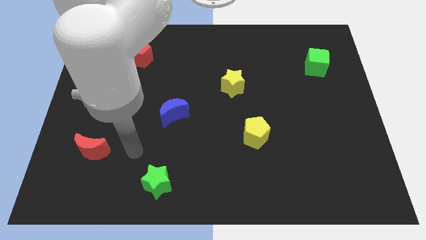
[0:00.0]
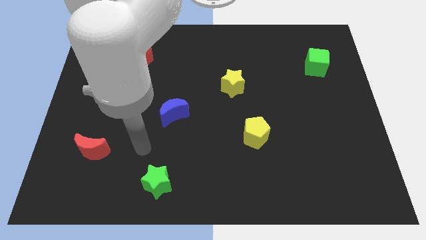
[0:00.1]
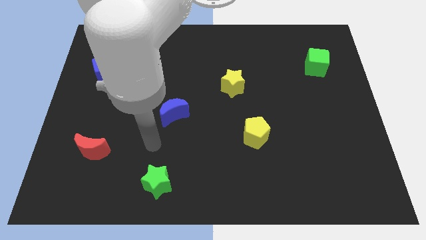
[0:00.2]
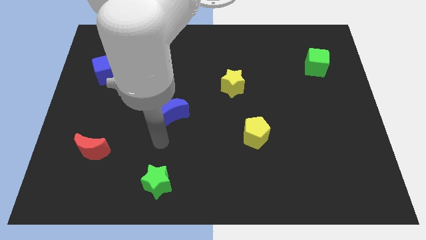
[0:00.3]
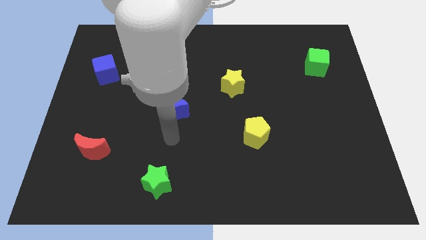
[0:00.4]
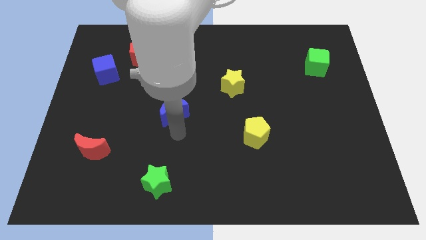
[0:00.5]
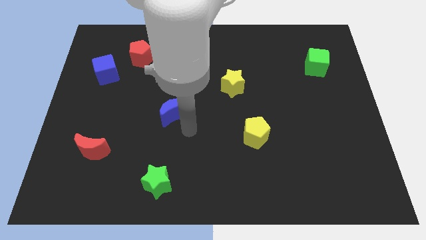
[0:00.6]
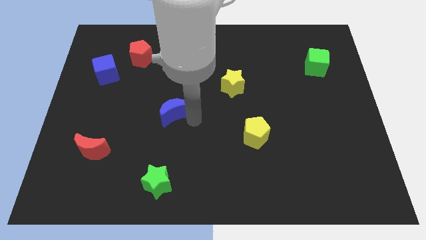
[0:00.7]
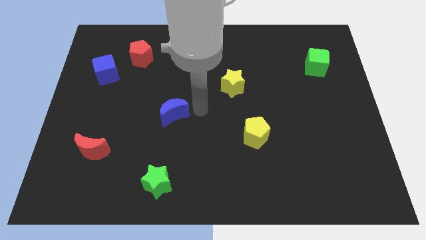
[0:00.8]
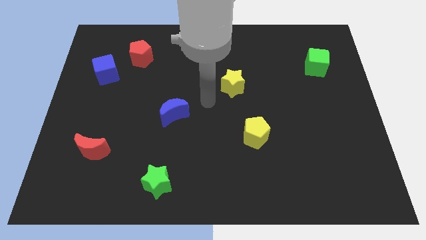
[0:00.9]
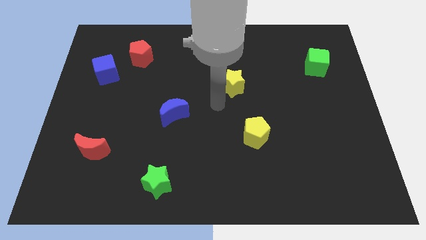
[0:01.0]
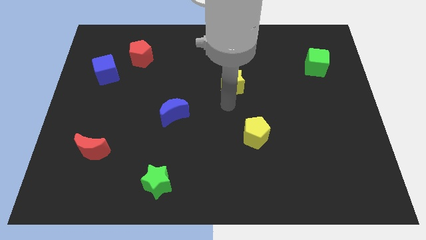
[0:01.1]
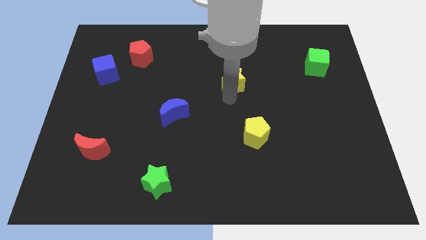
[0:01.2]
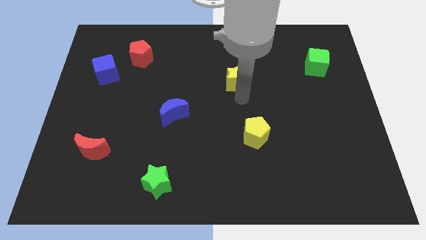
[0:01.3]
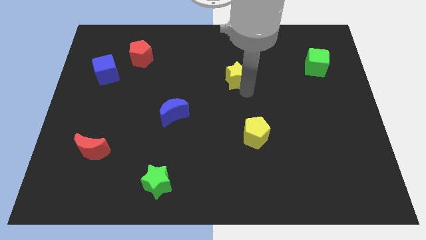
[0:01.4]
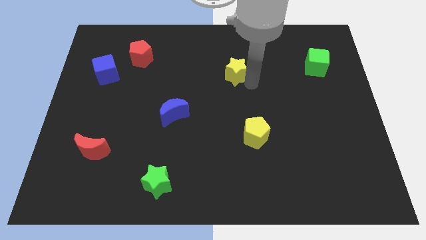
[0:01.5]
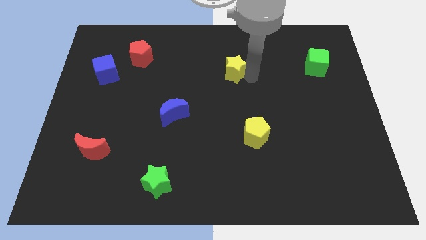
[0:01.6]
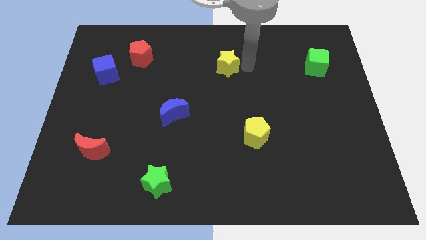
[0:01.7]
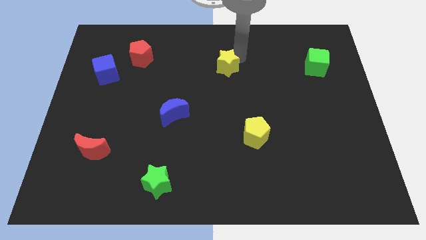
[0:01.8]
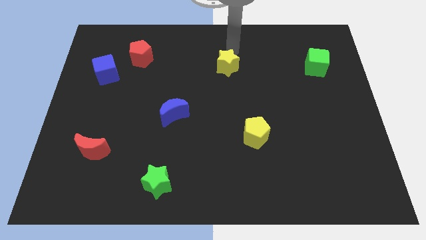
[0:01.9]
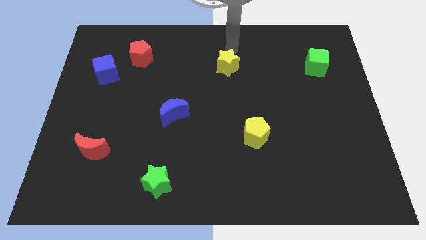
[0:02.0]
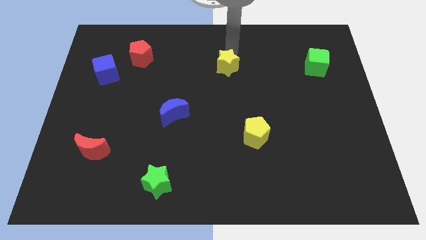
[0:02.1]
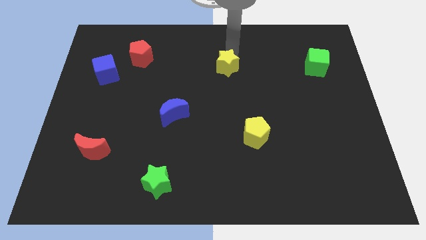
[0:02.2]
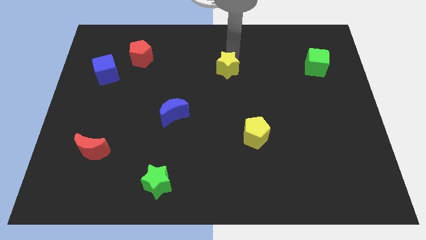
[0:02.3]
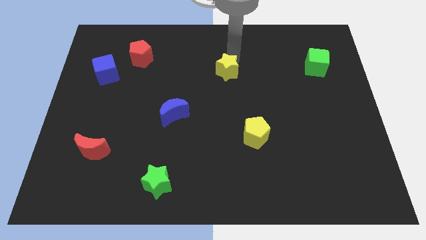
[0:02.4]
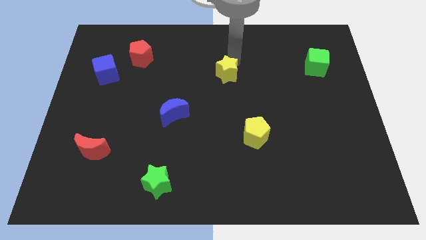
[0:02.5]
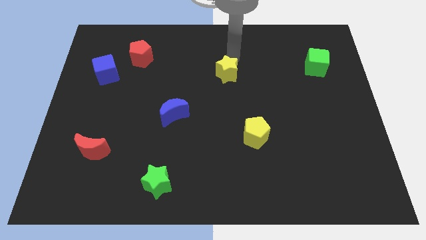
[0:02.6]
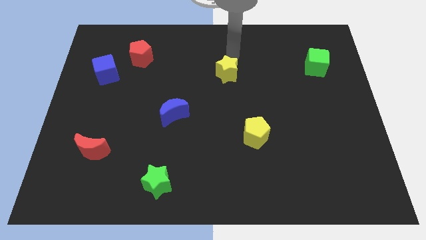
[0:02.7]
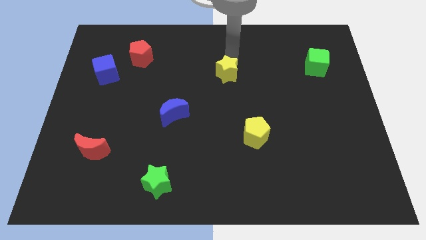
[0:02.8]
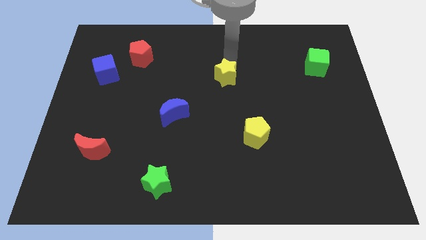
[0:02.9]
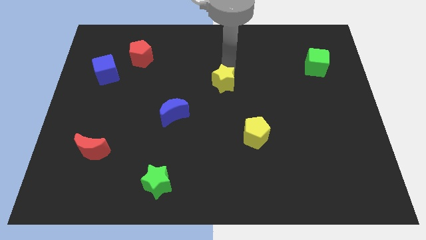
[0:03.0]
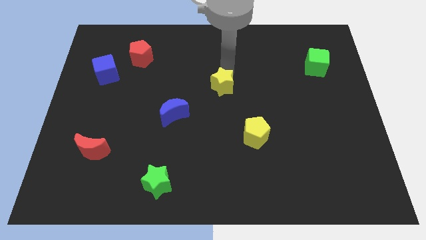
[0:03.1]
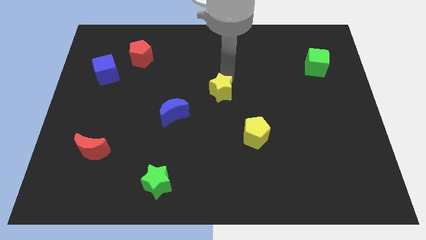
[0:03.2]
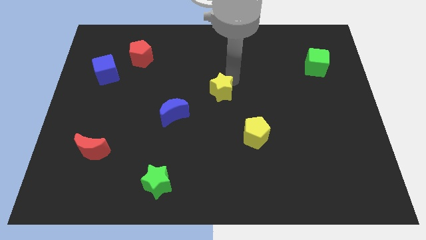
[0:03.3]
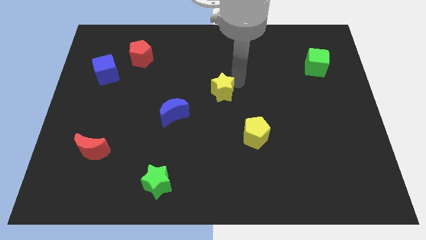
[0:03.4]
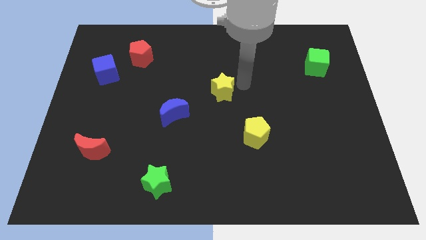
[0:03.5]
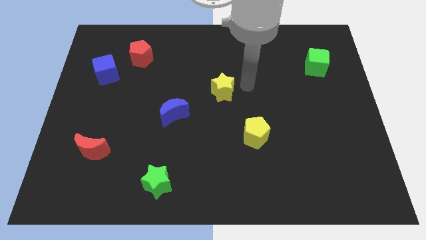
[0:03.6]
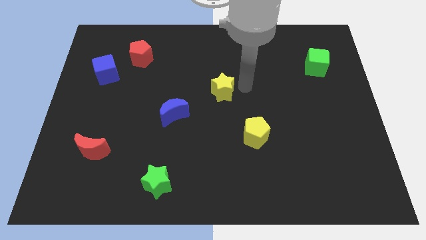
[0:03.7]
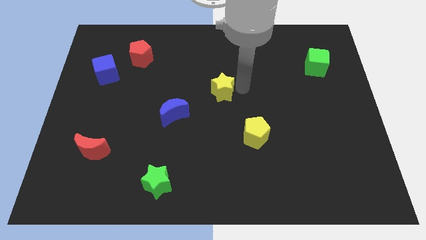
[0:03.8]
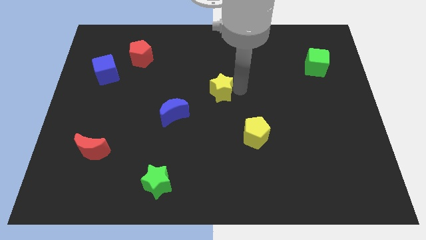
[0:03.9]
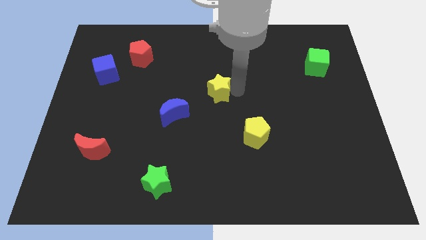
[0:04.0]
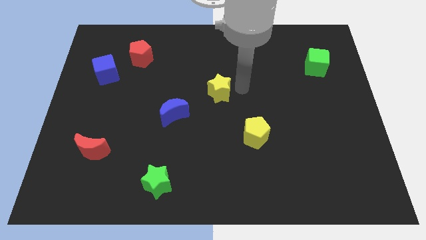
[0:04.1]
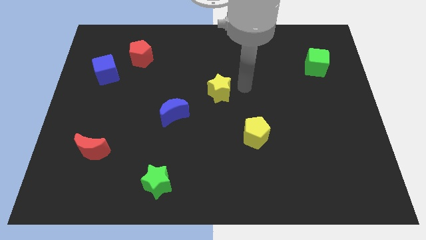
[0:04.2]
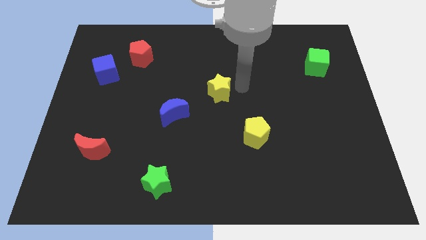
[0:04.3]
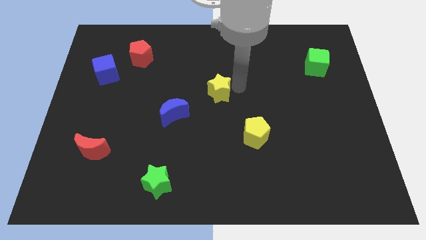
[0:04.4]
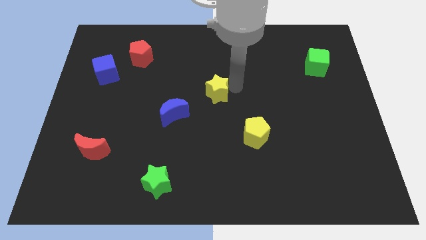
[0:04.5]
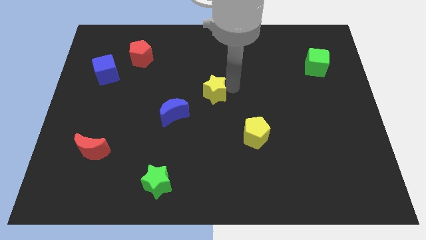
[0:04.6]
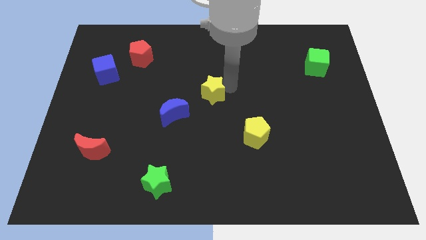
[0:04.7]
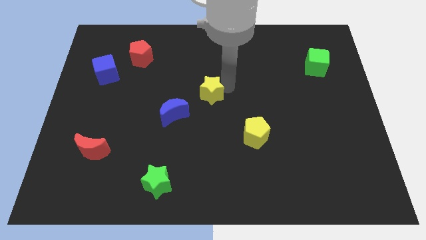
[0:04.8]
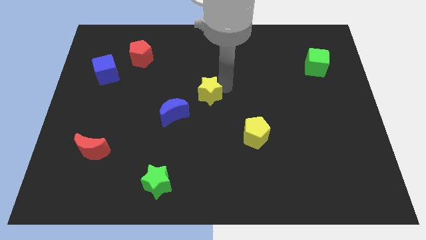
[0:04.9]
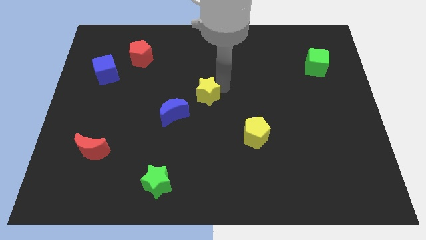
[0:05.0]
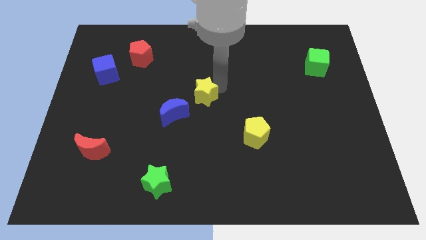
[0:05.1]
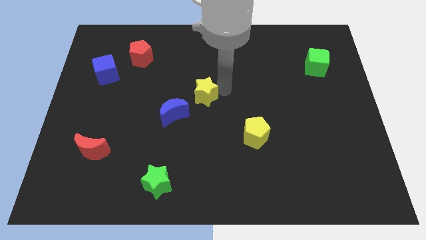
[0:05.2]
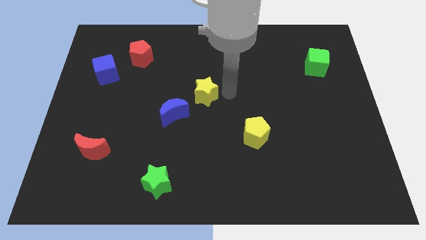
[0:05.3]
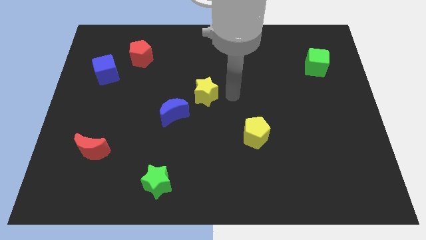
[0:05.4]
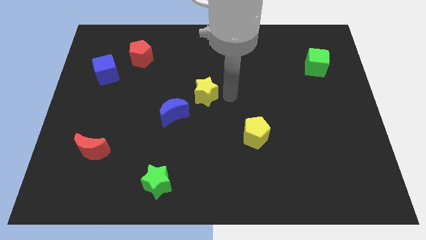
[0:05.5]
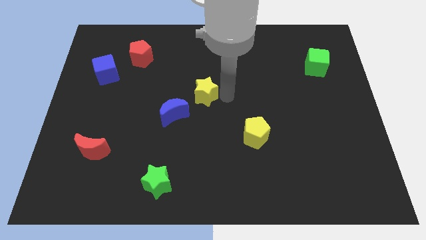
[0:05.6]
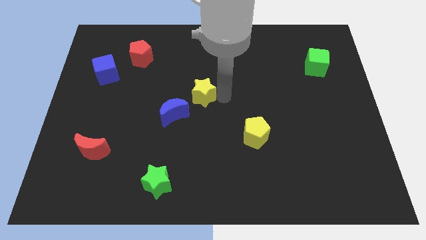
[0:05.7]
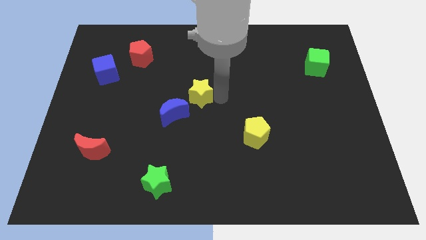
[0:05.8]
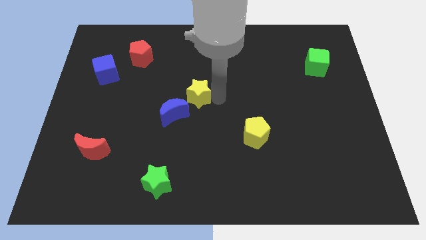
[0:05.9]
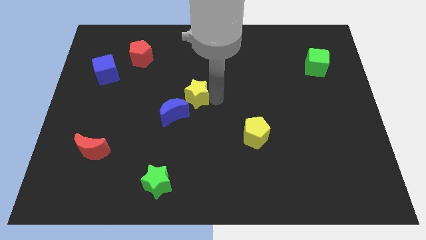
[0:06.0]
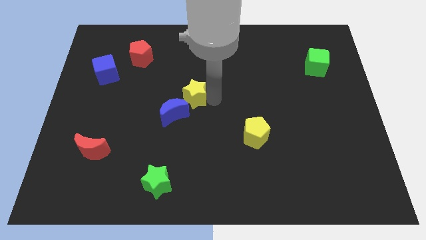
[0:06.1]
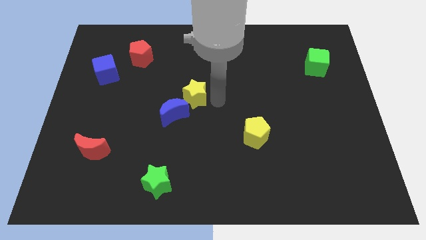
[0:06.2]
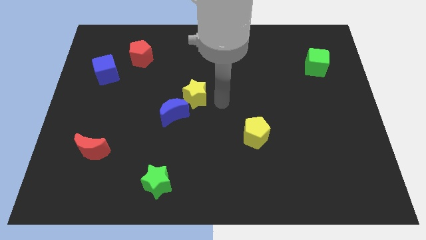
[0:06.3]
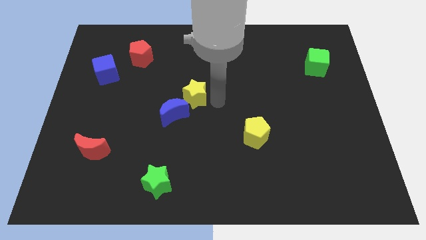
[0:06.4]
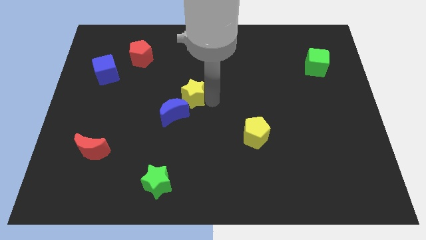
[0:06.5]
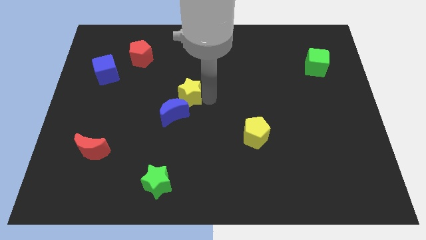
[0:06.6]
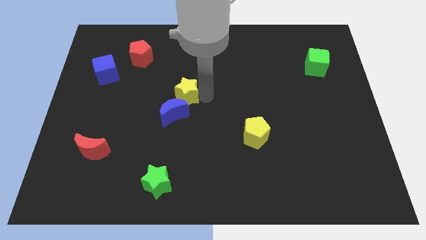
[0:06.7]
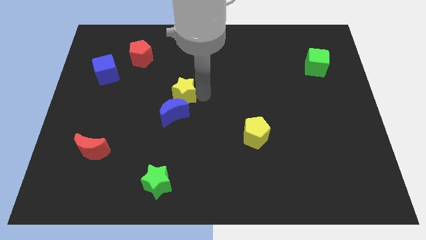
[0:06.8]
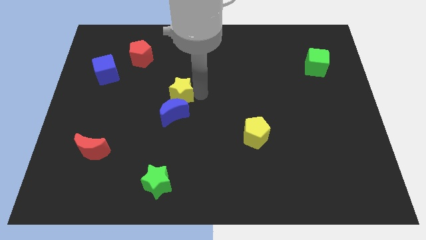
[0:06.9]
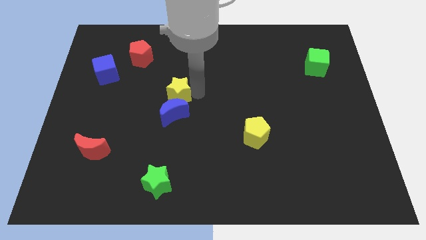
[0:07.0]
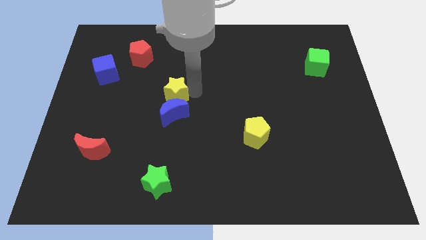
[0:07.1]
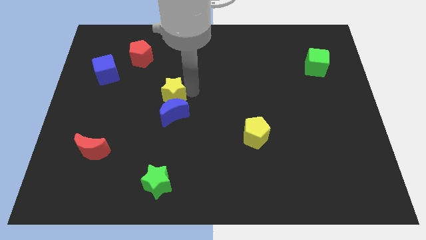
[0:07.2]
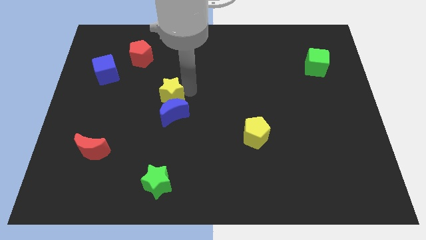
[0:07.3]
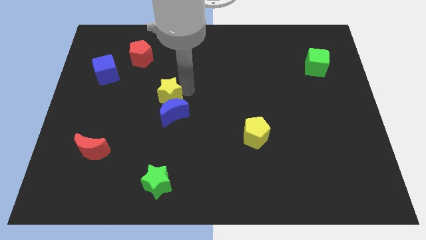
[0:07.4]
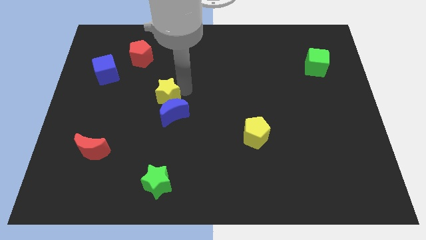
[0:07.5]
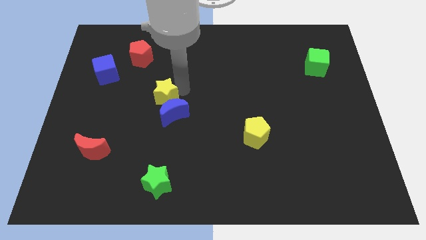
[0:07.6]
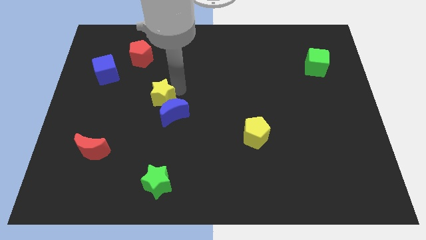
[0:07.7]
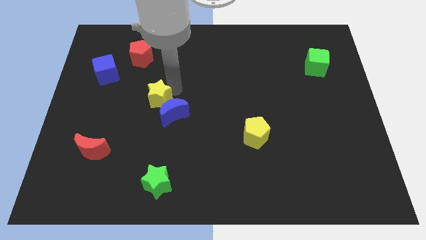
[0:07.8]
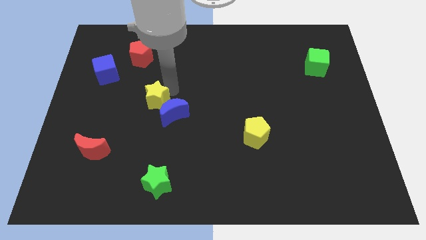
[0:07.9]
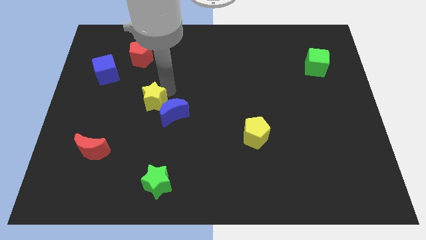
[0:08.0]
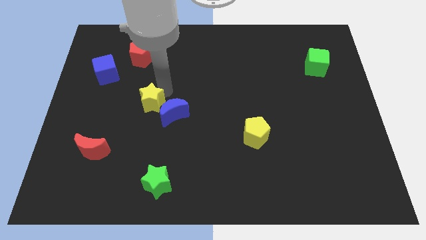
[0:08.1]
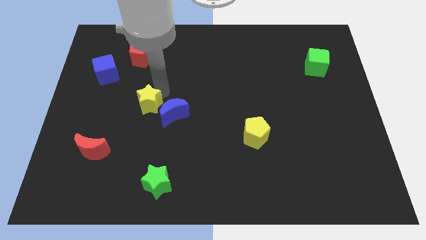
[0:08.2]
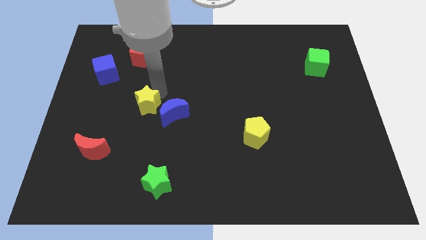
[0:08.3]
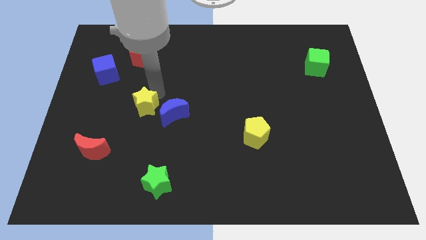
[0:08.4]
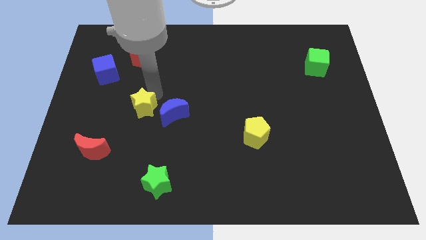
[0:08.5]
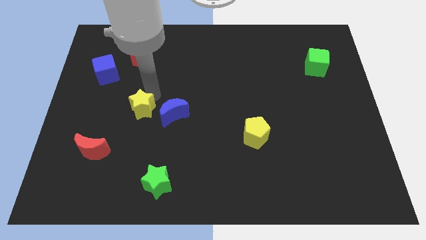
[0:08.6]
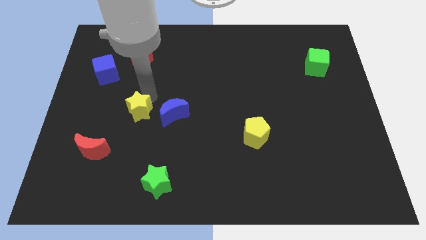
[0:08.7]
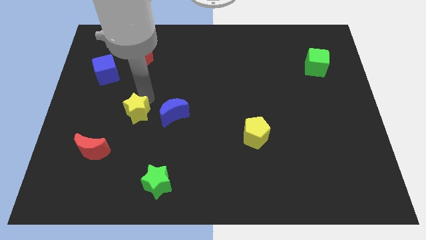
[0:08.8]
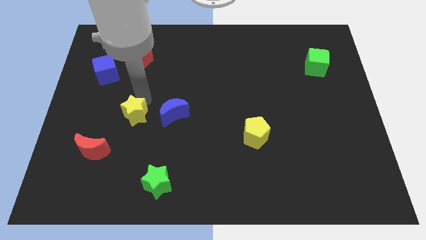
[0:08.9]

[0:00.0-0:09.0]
put the yellow star to the top right of the red moon
